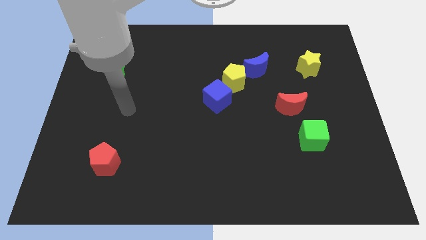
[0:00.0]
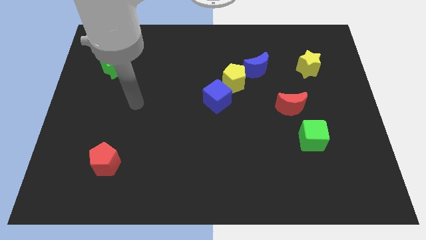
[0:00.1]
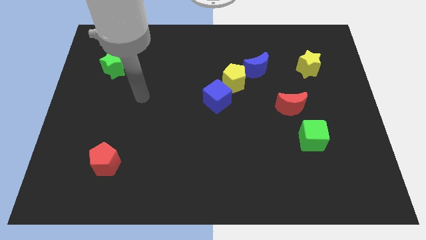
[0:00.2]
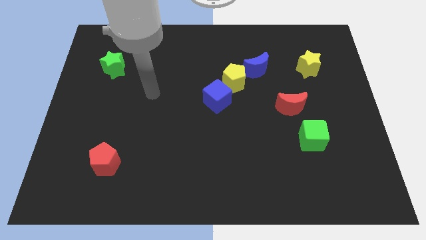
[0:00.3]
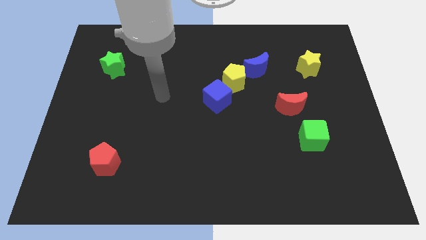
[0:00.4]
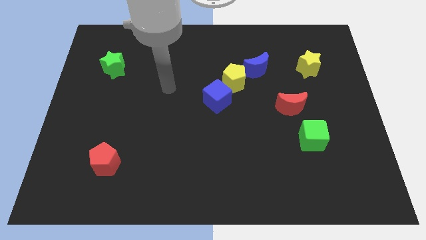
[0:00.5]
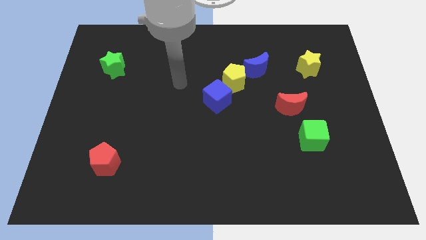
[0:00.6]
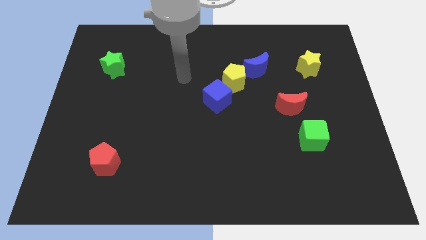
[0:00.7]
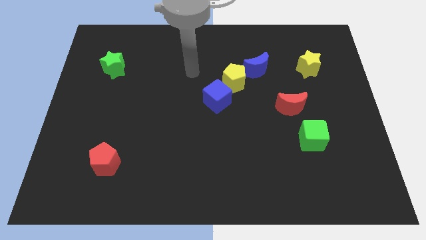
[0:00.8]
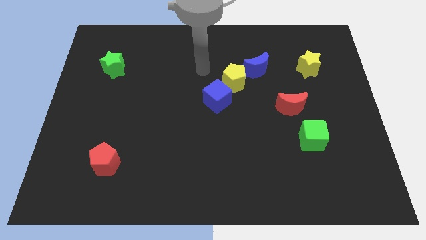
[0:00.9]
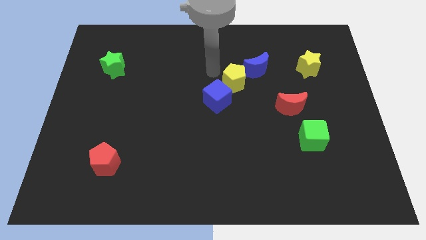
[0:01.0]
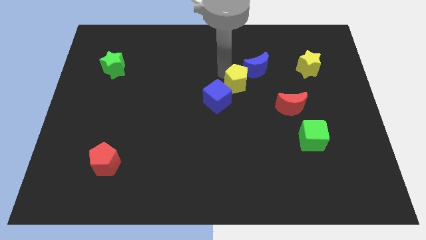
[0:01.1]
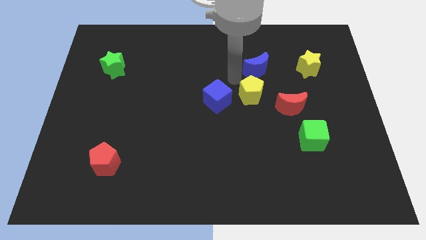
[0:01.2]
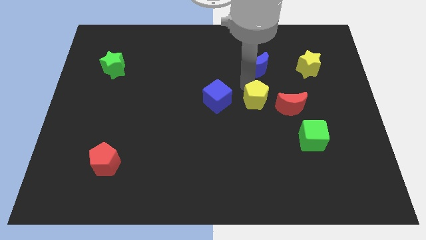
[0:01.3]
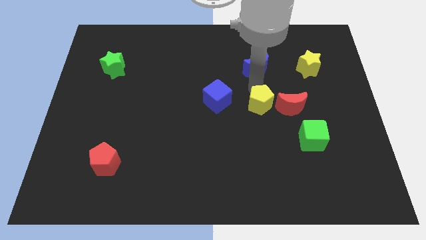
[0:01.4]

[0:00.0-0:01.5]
pull the blue moon apart from the yellow pentagon

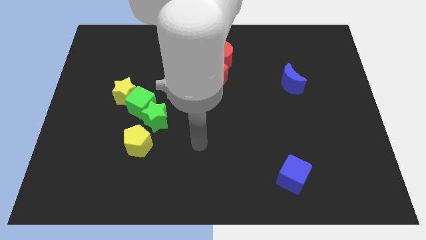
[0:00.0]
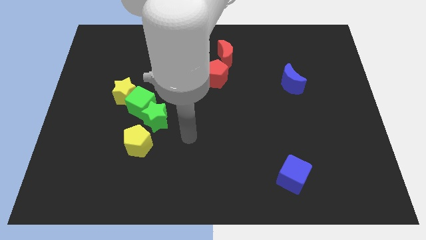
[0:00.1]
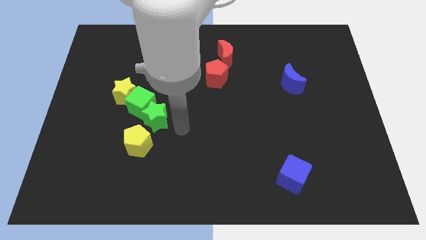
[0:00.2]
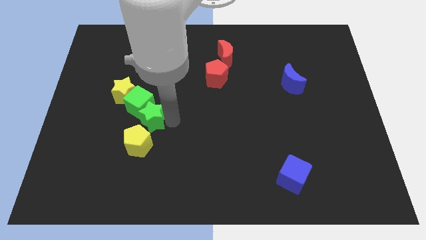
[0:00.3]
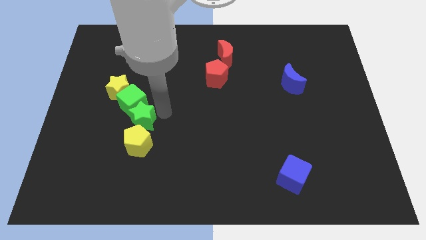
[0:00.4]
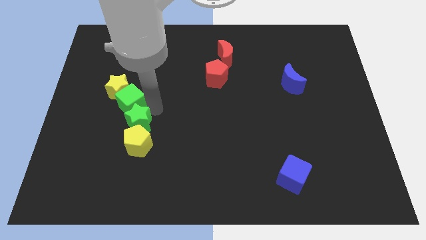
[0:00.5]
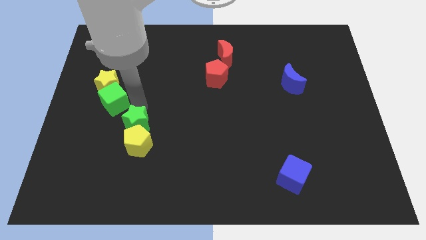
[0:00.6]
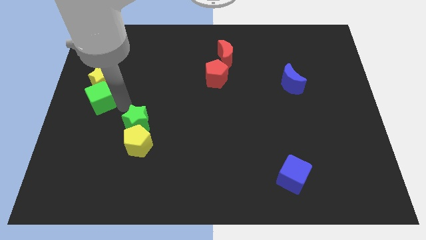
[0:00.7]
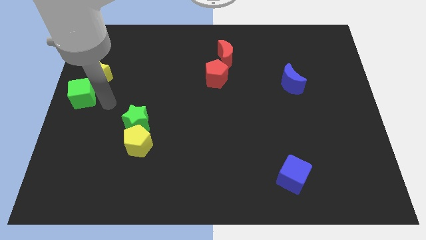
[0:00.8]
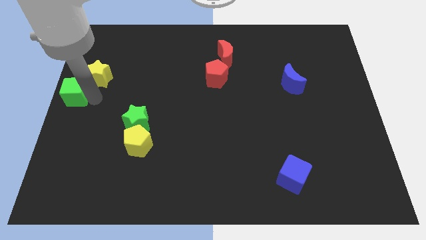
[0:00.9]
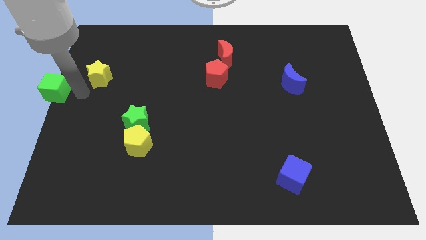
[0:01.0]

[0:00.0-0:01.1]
move the yellow star away from the green cube

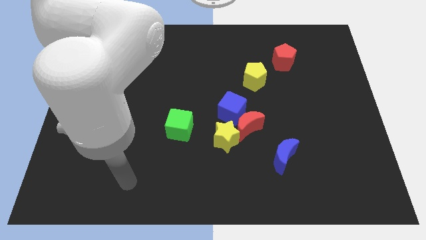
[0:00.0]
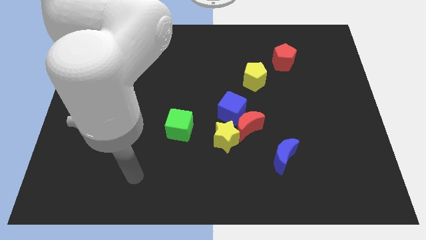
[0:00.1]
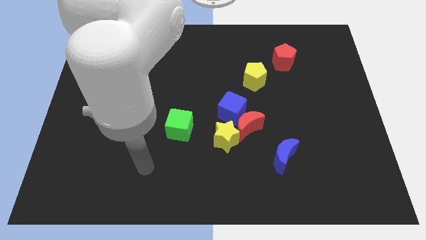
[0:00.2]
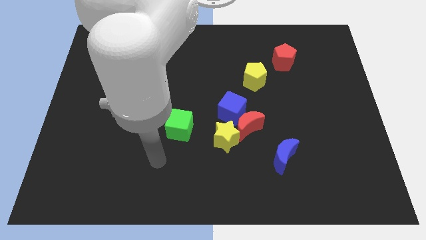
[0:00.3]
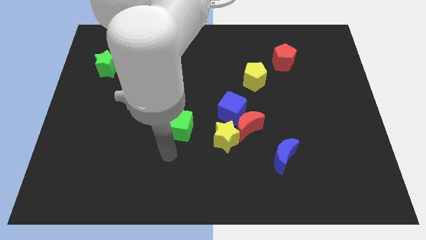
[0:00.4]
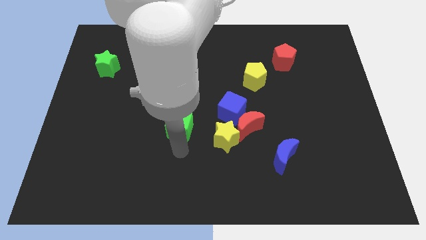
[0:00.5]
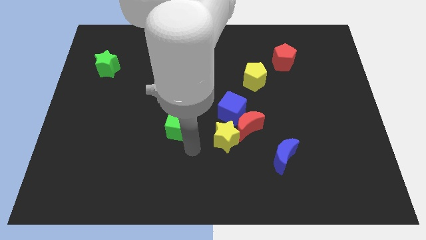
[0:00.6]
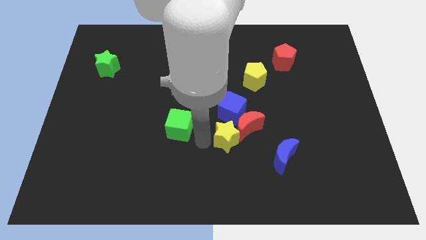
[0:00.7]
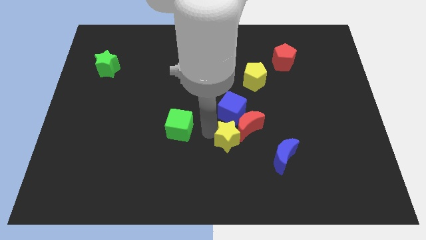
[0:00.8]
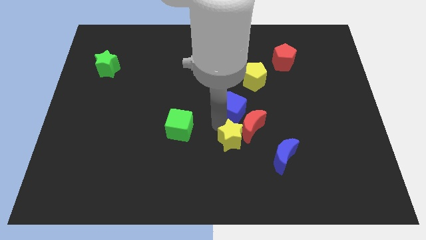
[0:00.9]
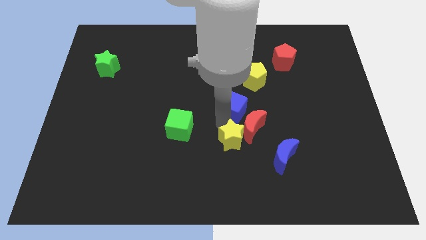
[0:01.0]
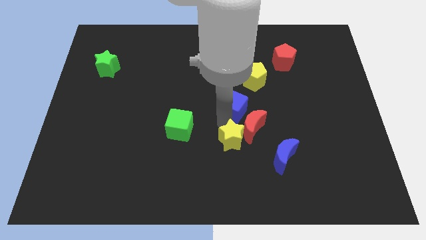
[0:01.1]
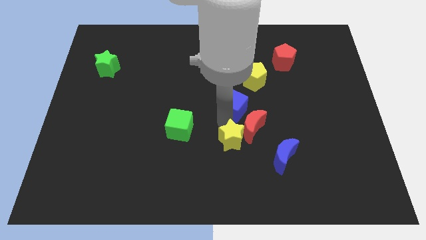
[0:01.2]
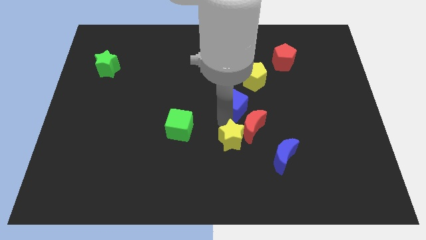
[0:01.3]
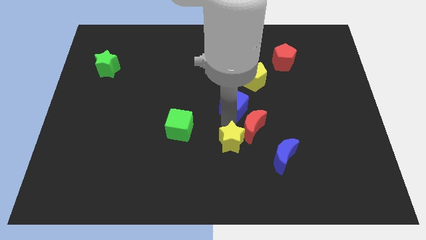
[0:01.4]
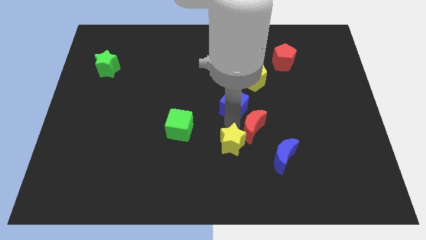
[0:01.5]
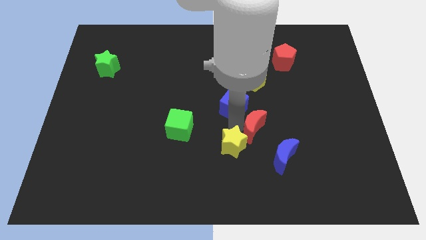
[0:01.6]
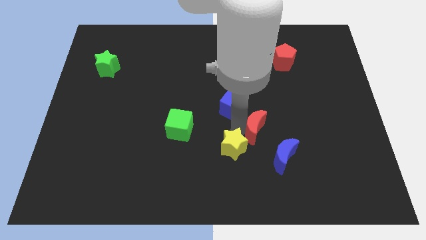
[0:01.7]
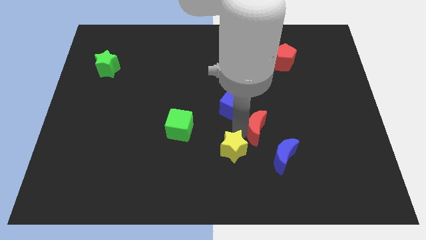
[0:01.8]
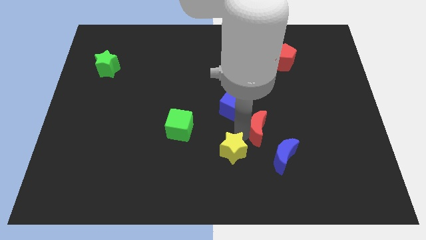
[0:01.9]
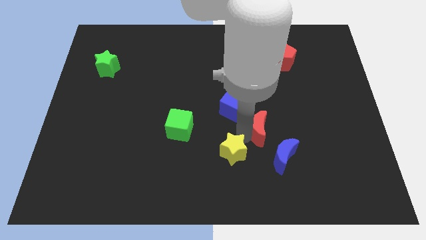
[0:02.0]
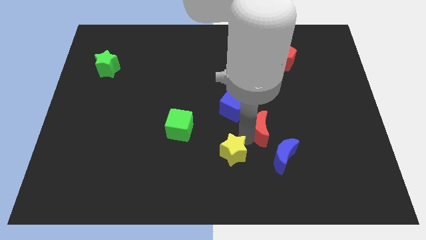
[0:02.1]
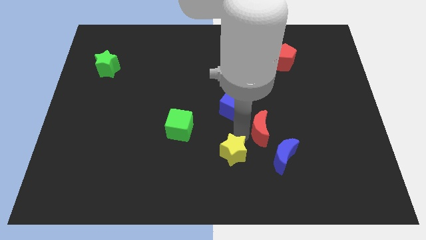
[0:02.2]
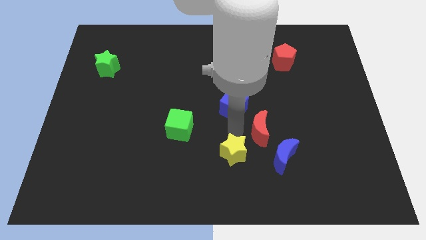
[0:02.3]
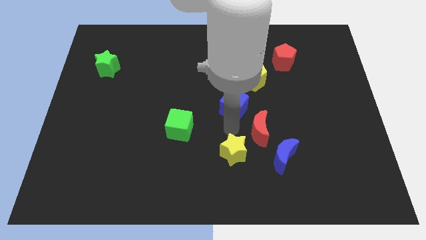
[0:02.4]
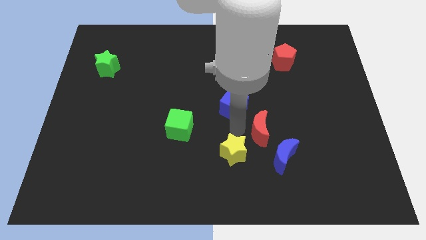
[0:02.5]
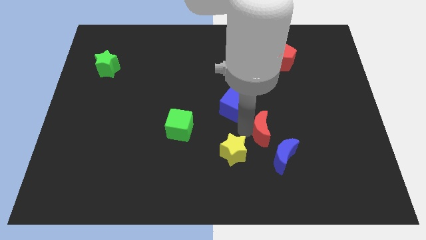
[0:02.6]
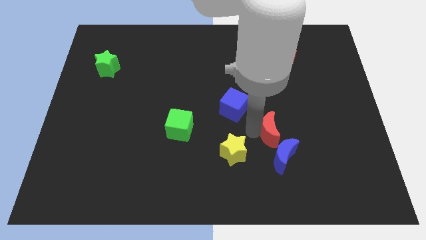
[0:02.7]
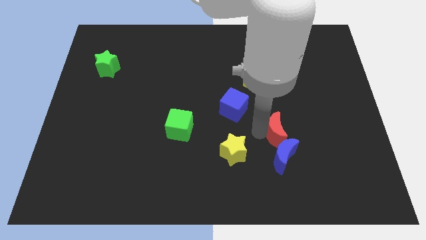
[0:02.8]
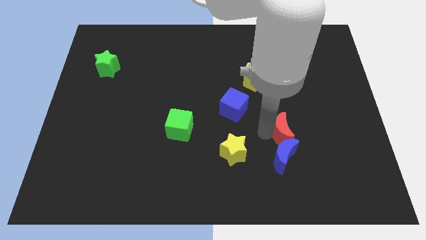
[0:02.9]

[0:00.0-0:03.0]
move the red moon away from the blue cube and yellow star

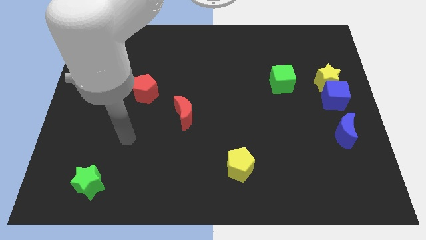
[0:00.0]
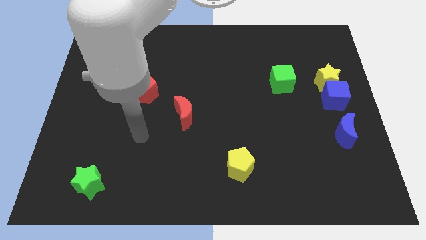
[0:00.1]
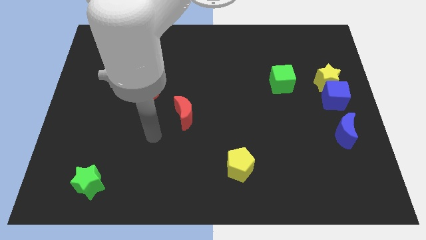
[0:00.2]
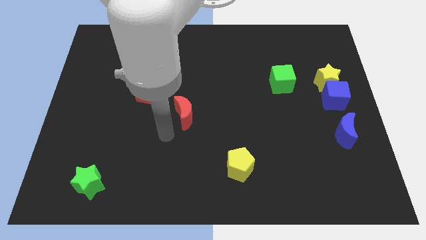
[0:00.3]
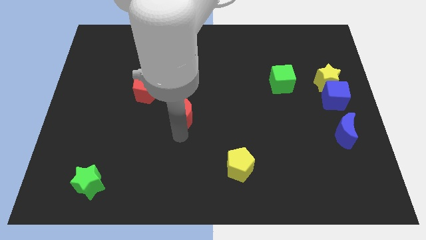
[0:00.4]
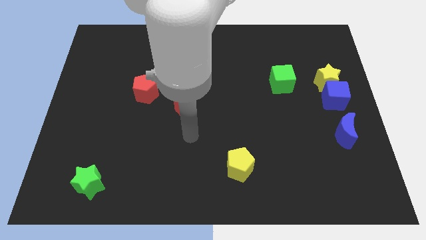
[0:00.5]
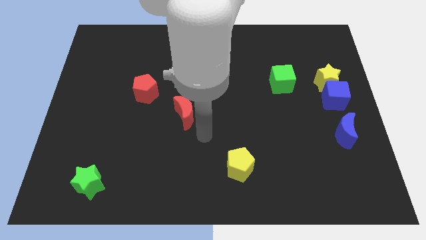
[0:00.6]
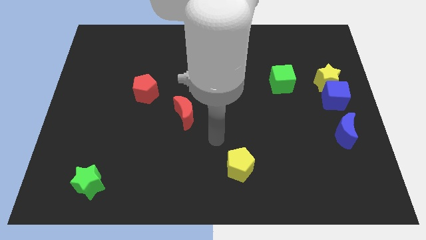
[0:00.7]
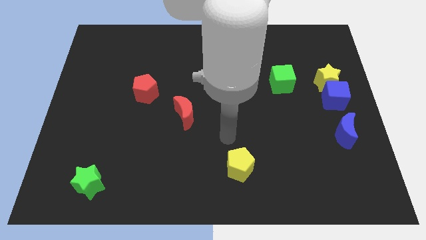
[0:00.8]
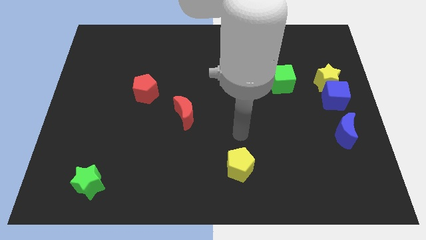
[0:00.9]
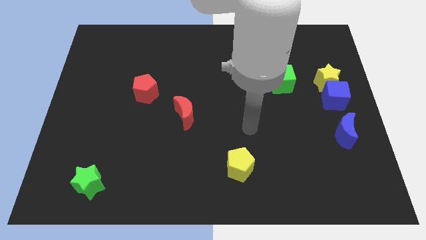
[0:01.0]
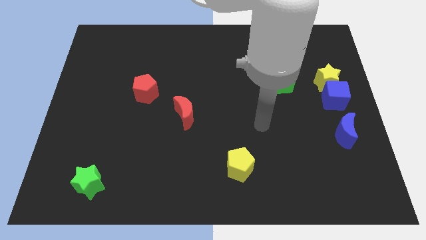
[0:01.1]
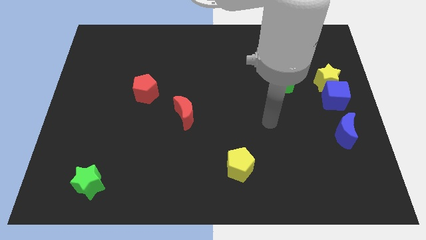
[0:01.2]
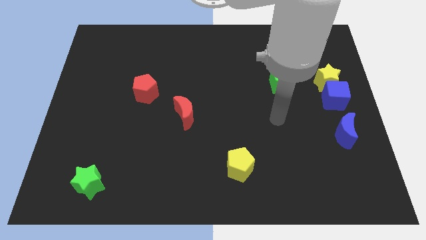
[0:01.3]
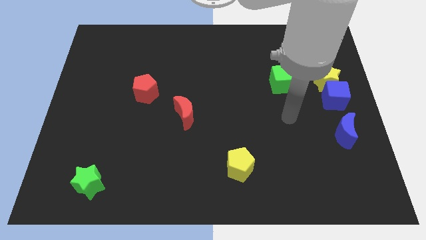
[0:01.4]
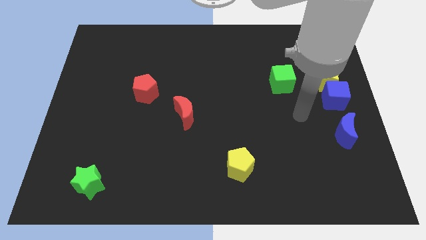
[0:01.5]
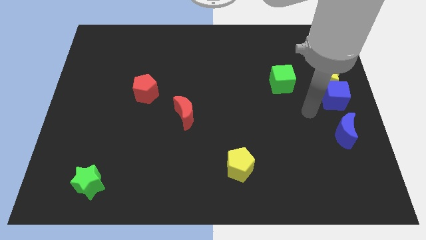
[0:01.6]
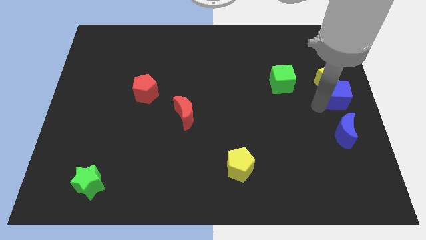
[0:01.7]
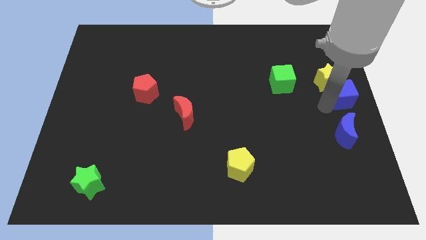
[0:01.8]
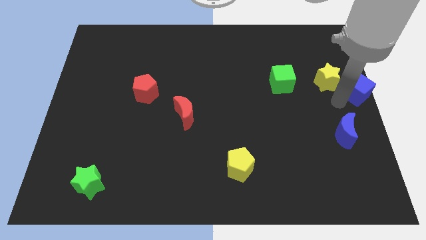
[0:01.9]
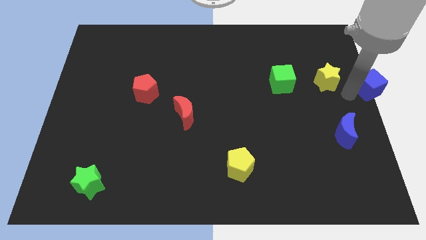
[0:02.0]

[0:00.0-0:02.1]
pull the yellow star apart from the blue cube

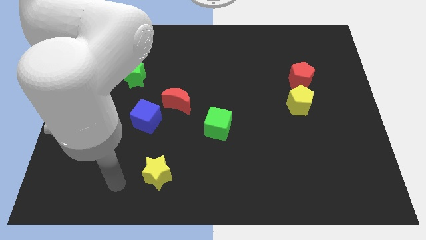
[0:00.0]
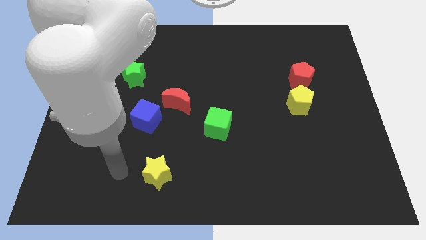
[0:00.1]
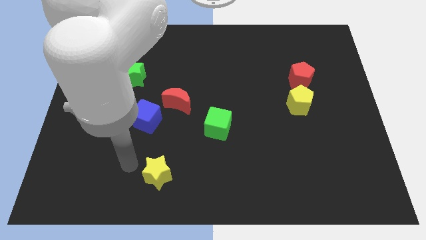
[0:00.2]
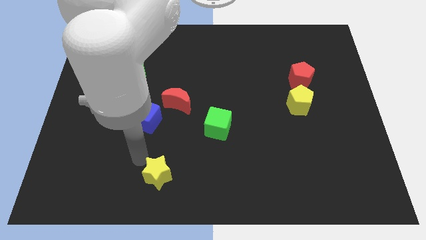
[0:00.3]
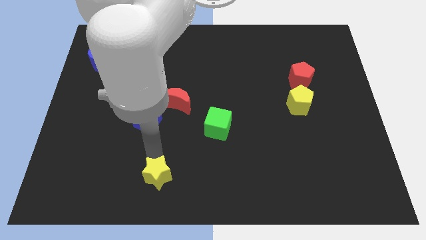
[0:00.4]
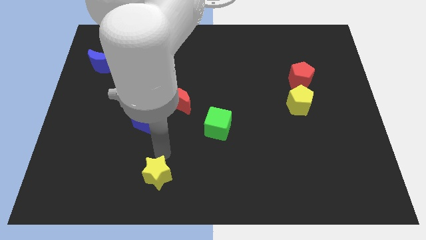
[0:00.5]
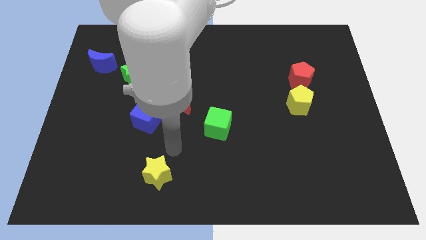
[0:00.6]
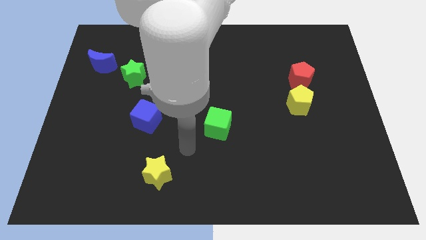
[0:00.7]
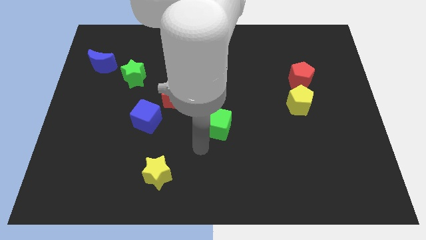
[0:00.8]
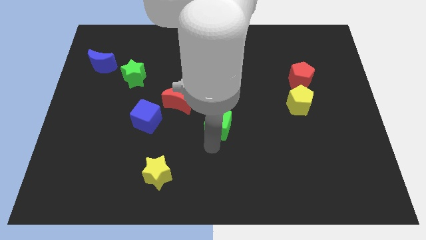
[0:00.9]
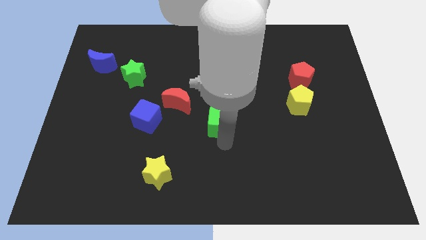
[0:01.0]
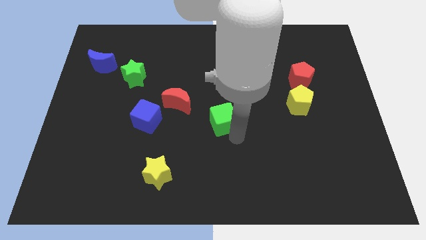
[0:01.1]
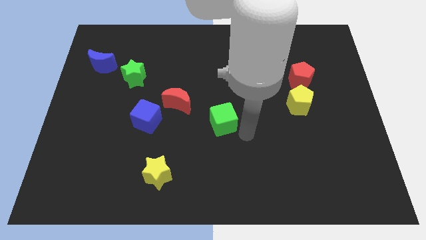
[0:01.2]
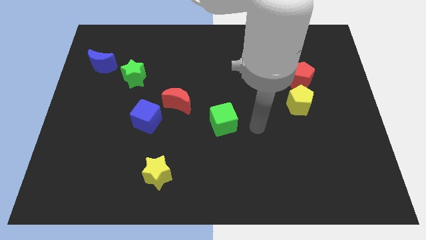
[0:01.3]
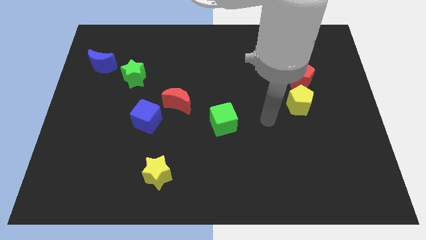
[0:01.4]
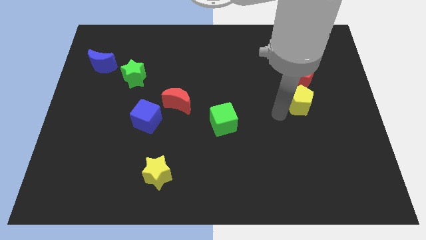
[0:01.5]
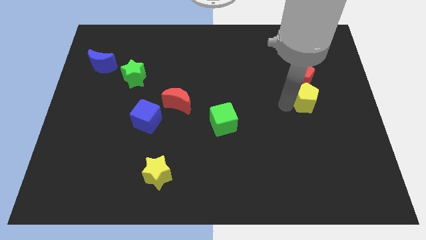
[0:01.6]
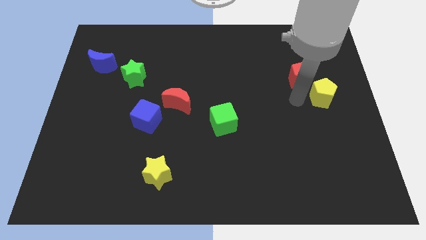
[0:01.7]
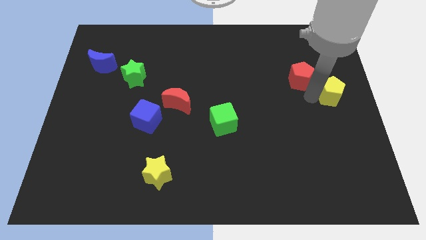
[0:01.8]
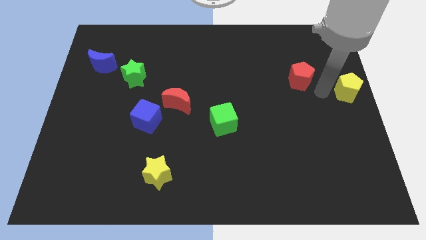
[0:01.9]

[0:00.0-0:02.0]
move the red pentagon away from the yellow pentagon
